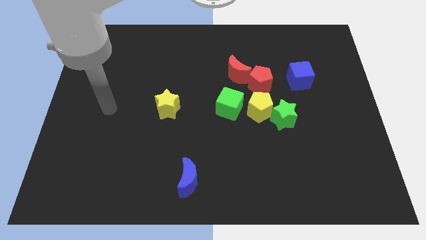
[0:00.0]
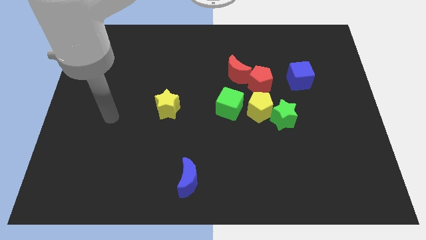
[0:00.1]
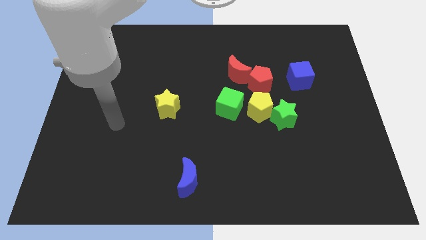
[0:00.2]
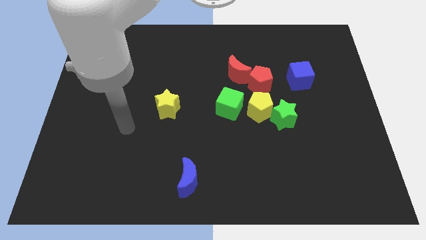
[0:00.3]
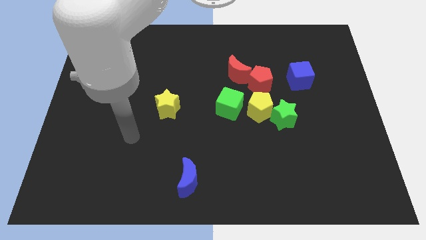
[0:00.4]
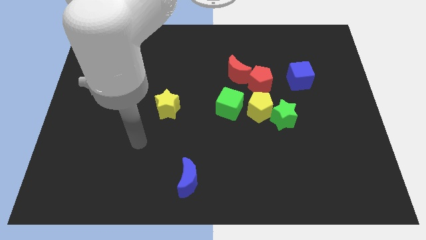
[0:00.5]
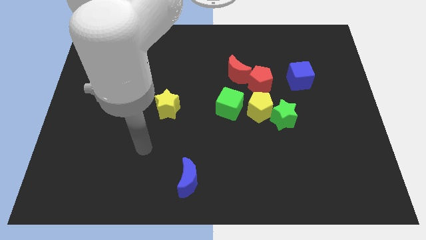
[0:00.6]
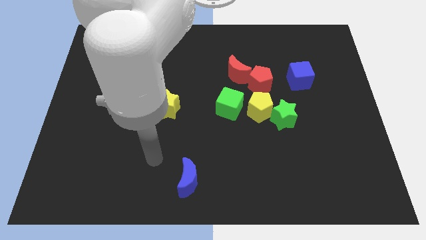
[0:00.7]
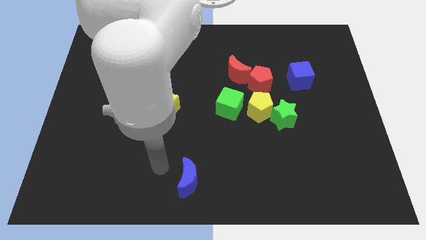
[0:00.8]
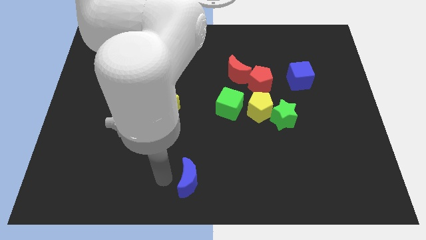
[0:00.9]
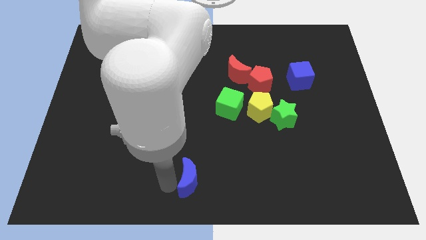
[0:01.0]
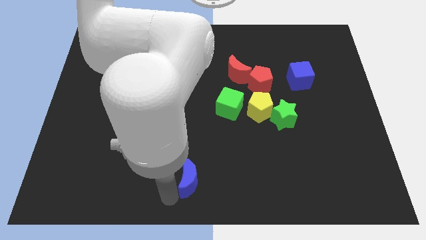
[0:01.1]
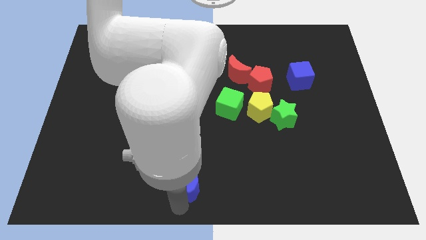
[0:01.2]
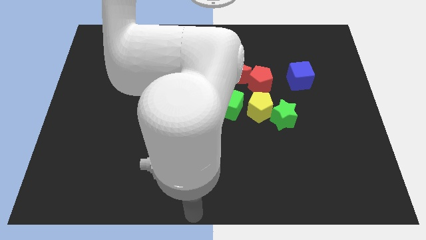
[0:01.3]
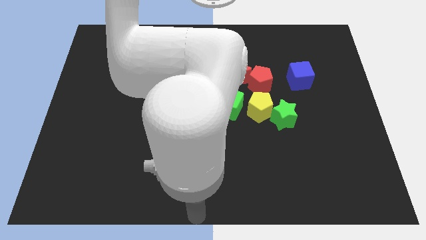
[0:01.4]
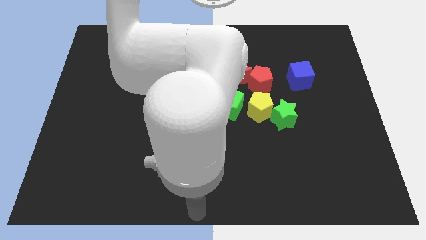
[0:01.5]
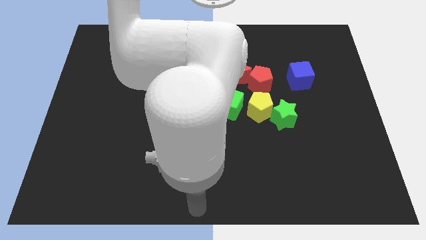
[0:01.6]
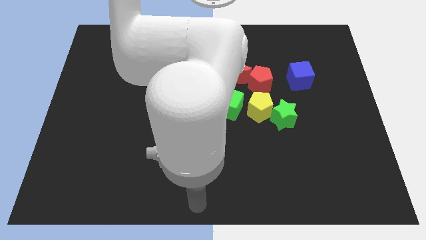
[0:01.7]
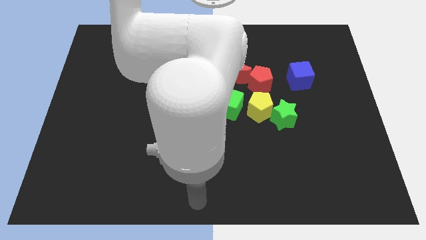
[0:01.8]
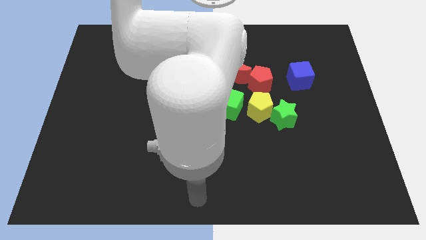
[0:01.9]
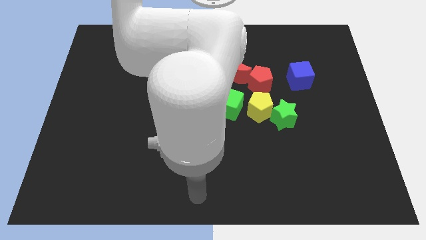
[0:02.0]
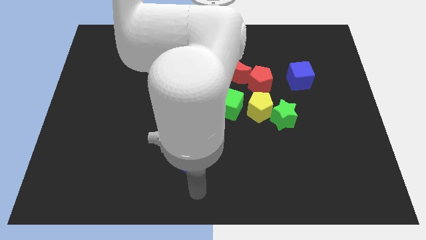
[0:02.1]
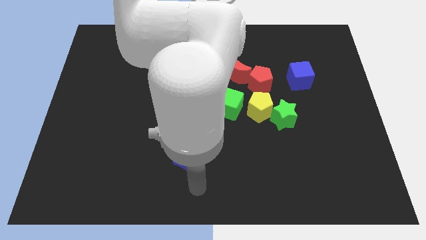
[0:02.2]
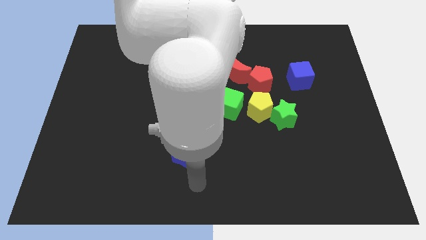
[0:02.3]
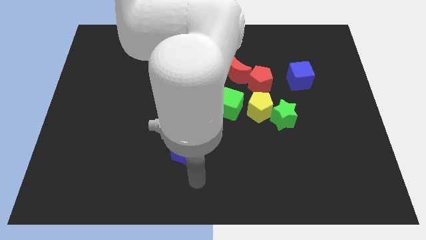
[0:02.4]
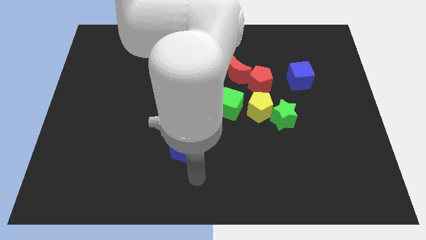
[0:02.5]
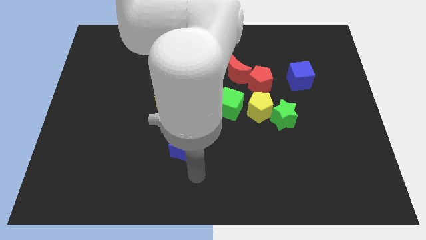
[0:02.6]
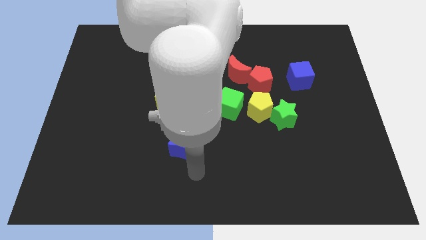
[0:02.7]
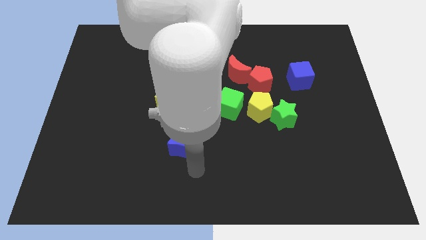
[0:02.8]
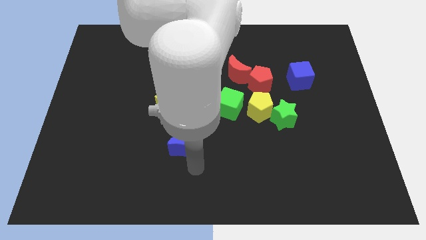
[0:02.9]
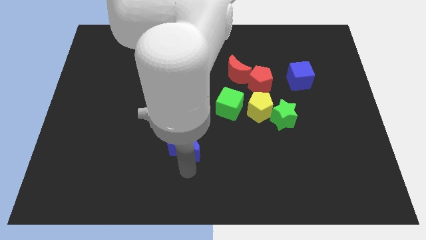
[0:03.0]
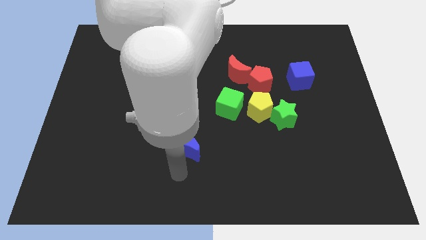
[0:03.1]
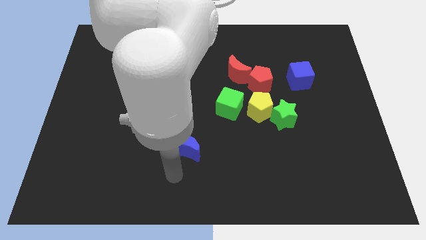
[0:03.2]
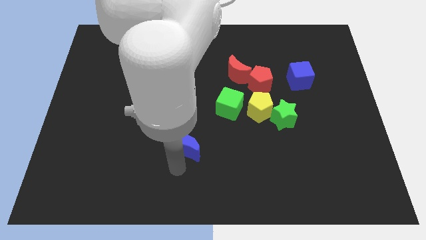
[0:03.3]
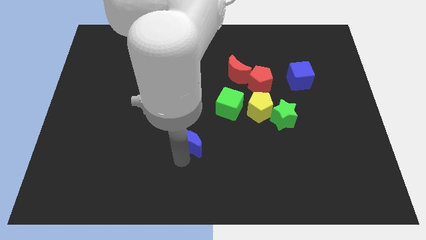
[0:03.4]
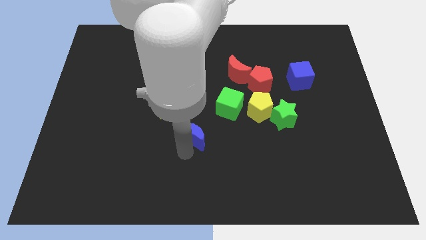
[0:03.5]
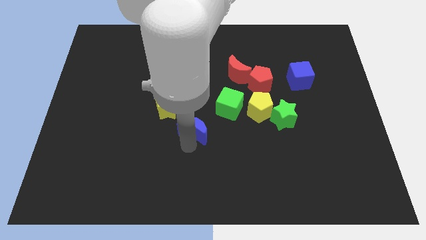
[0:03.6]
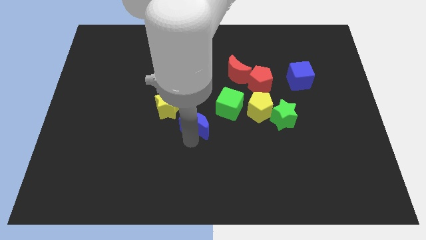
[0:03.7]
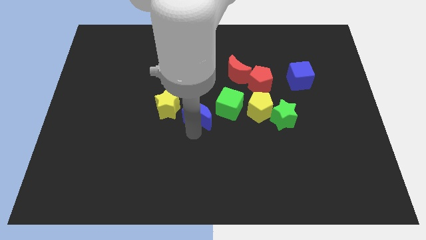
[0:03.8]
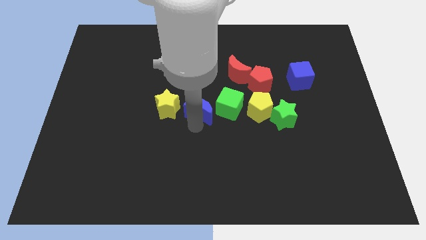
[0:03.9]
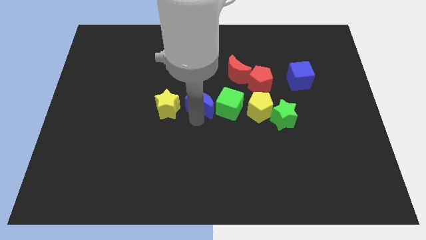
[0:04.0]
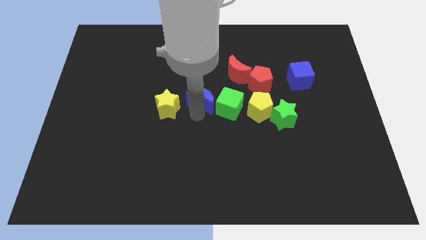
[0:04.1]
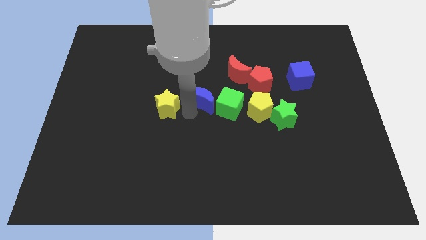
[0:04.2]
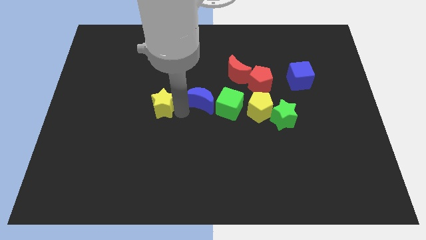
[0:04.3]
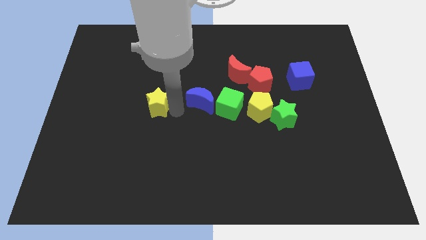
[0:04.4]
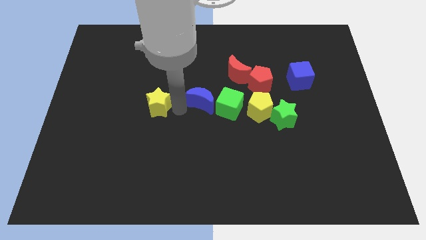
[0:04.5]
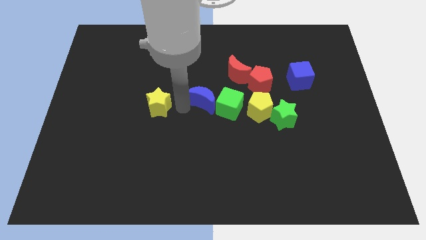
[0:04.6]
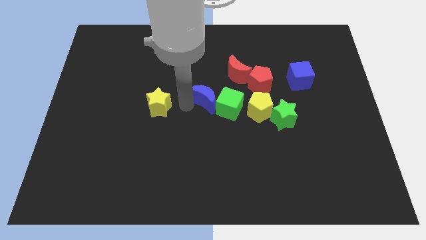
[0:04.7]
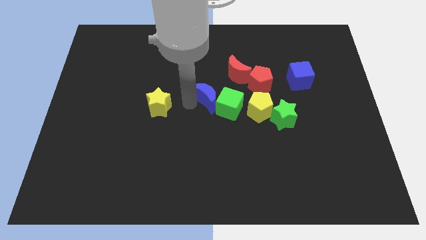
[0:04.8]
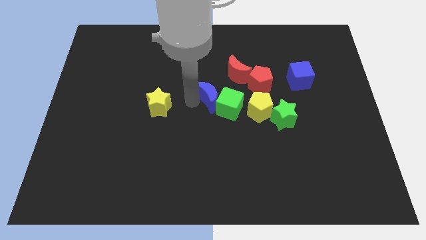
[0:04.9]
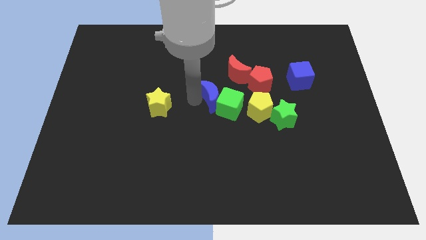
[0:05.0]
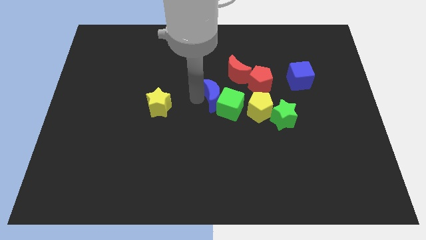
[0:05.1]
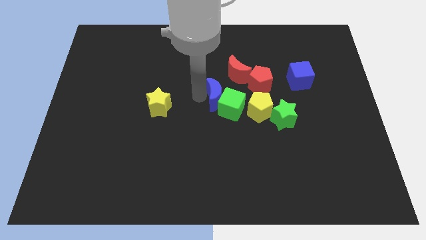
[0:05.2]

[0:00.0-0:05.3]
slide the blue moon to the top left of the yellow pentagon

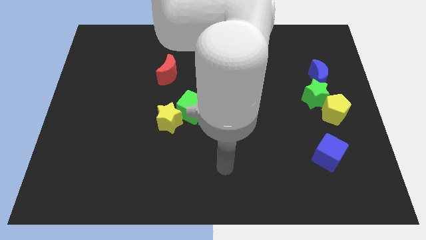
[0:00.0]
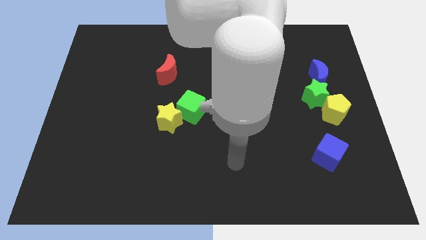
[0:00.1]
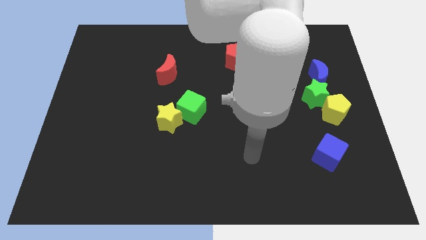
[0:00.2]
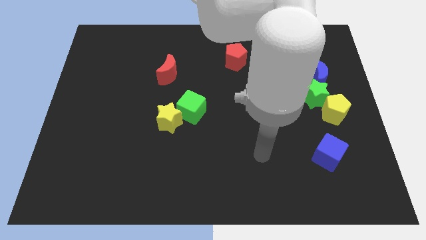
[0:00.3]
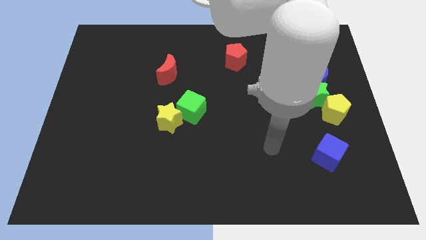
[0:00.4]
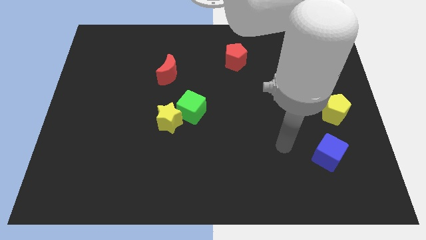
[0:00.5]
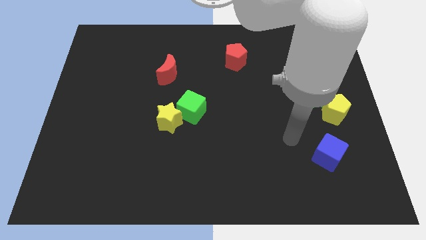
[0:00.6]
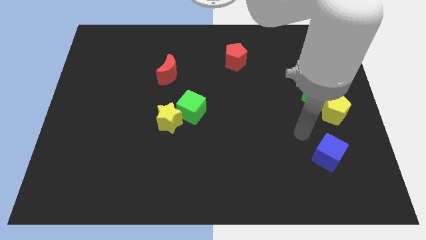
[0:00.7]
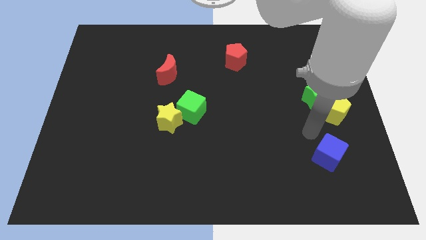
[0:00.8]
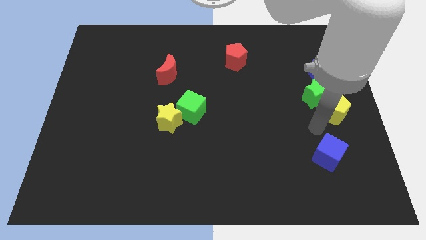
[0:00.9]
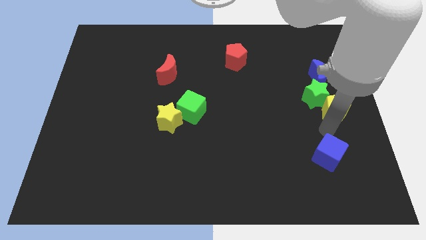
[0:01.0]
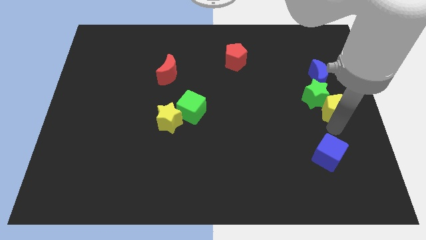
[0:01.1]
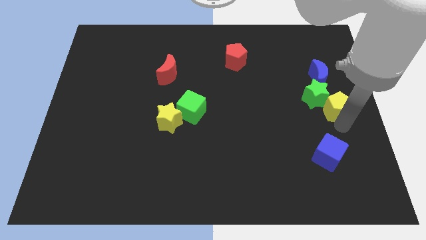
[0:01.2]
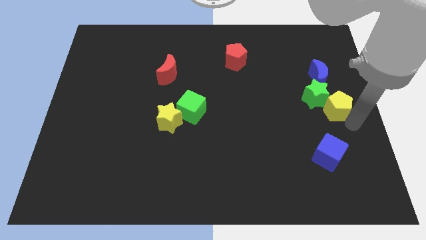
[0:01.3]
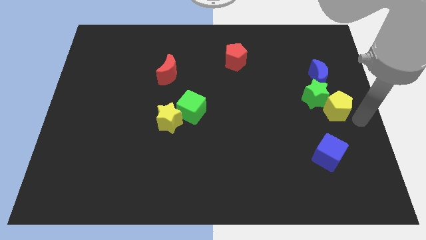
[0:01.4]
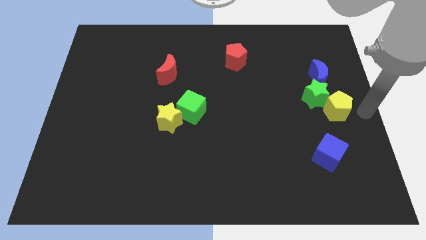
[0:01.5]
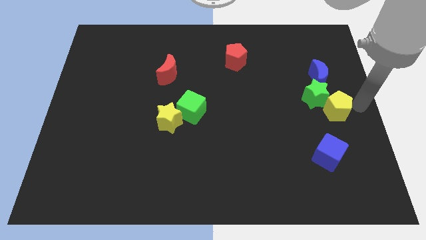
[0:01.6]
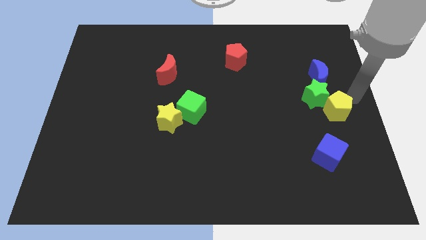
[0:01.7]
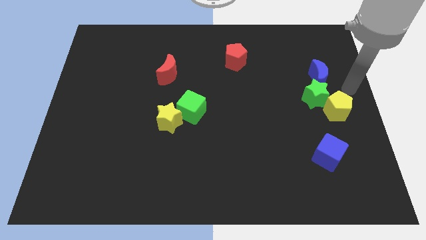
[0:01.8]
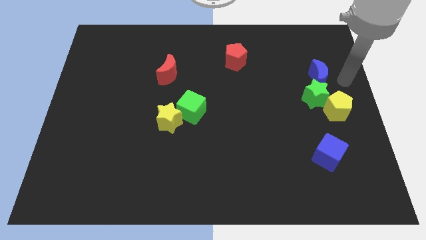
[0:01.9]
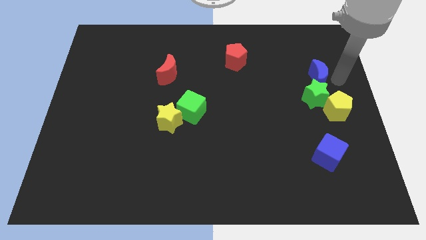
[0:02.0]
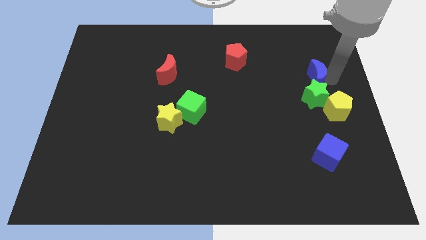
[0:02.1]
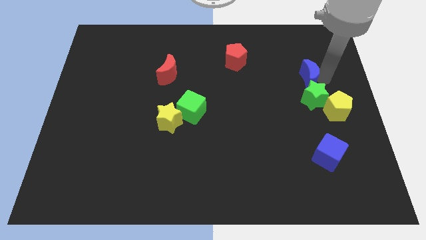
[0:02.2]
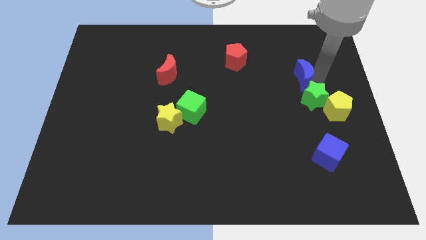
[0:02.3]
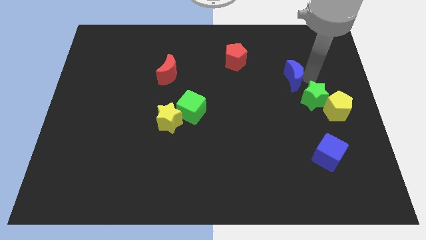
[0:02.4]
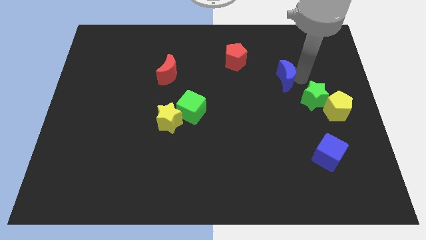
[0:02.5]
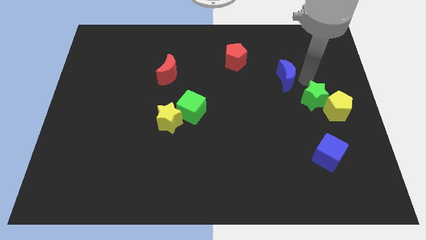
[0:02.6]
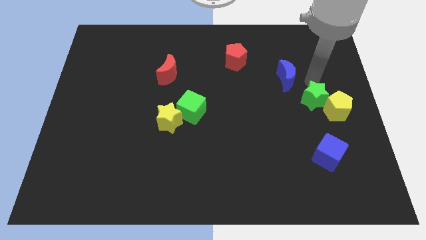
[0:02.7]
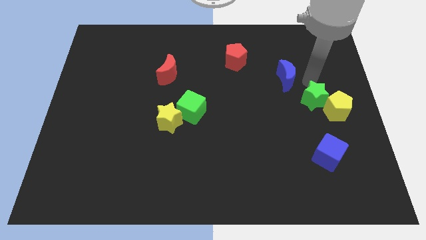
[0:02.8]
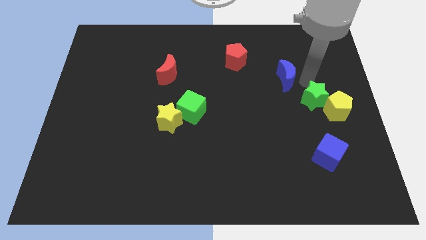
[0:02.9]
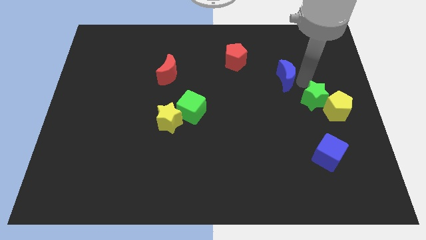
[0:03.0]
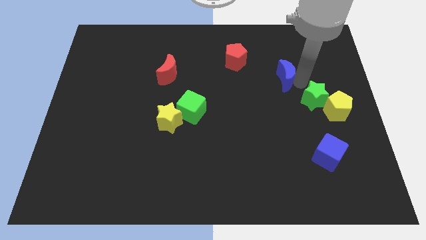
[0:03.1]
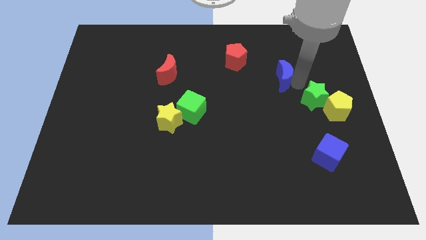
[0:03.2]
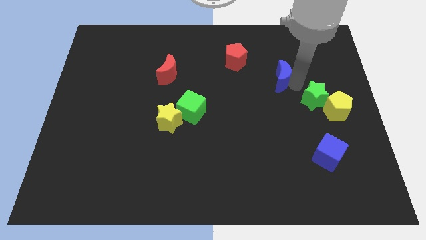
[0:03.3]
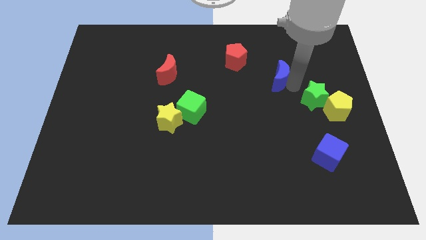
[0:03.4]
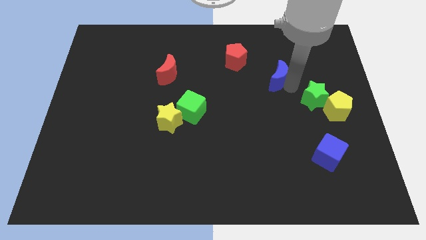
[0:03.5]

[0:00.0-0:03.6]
slide the blue moon diagonally down and to the right of the red pentagon
